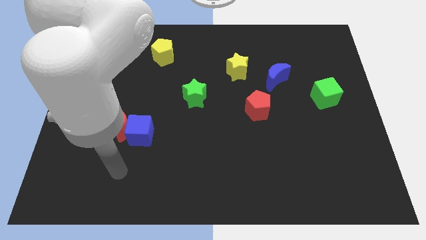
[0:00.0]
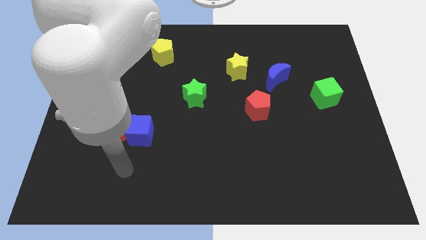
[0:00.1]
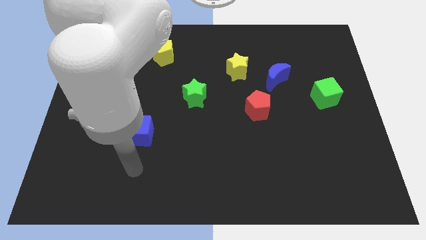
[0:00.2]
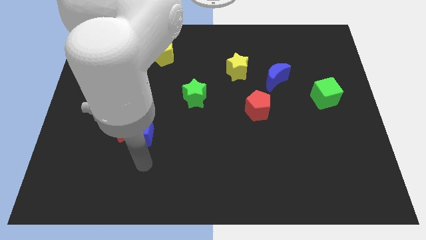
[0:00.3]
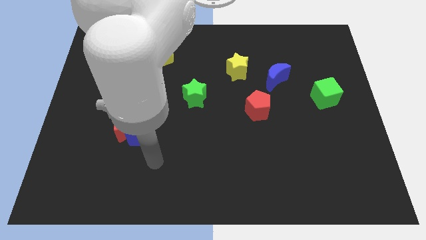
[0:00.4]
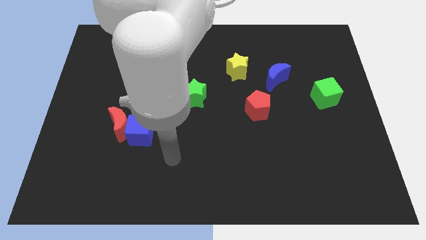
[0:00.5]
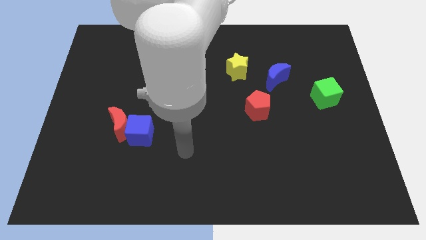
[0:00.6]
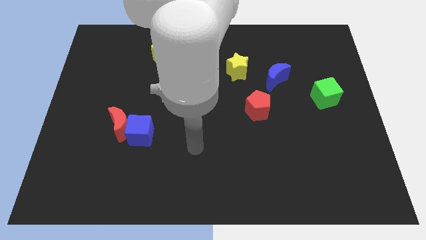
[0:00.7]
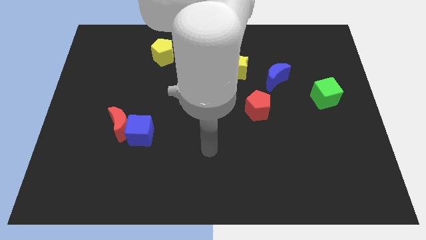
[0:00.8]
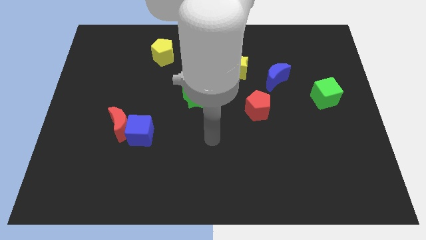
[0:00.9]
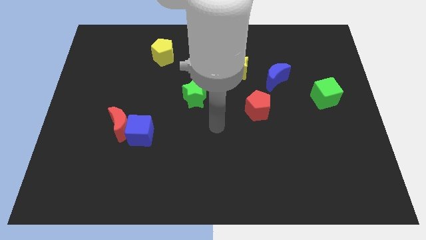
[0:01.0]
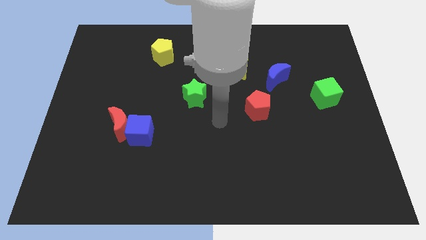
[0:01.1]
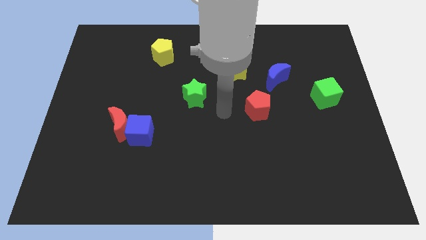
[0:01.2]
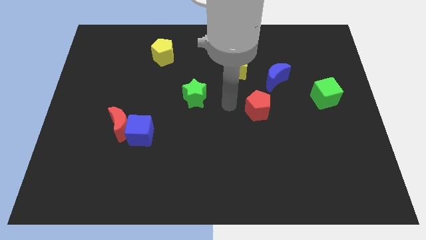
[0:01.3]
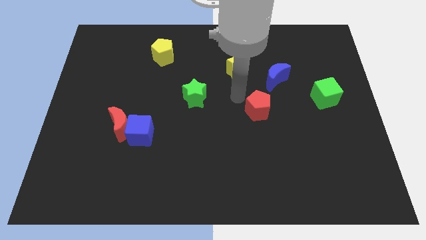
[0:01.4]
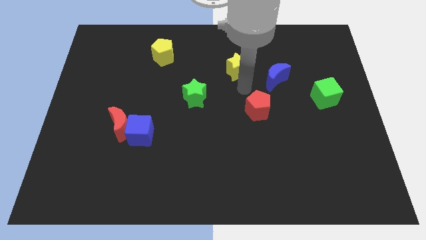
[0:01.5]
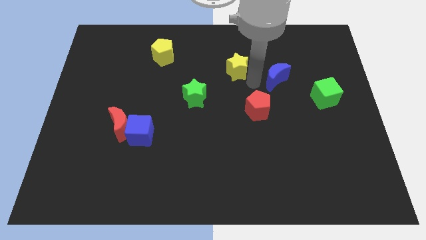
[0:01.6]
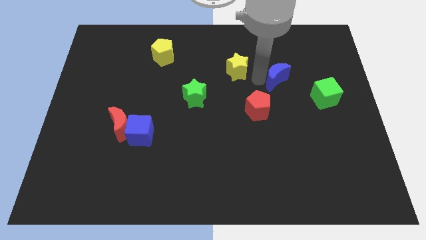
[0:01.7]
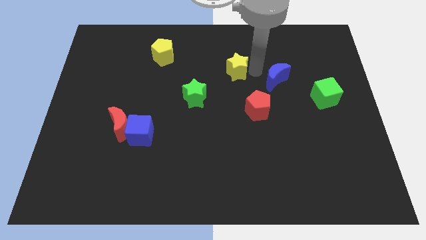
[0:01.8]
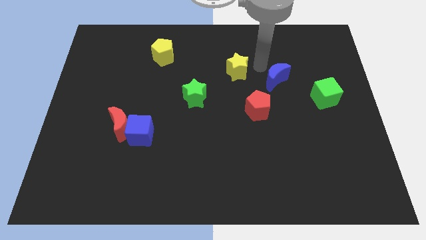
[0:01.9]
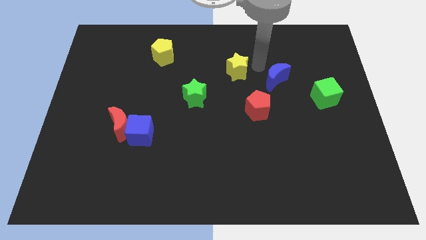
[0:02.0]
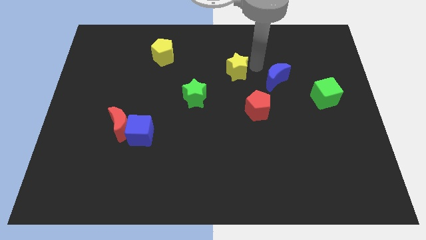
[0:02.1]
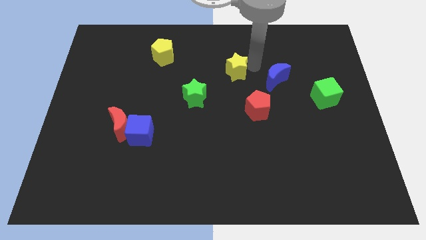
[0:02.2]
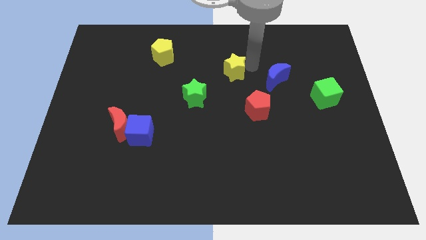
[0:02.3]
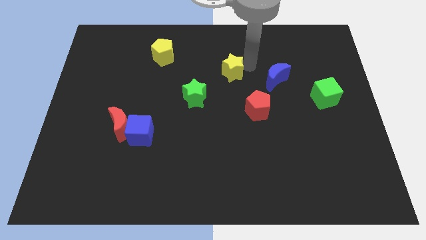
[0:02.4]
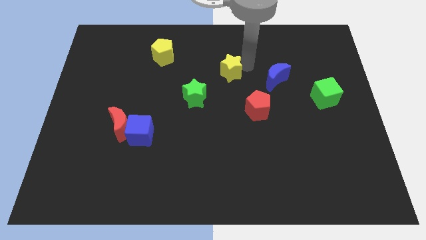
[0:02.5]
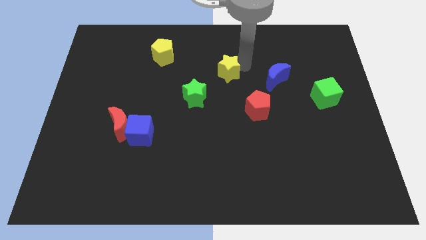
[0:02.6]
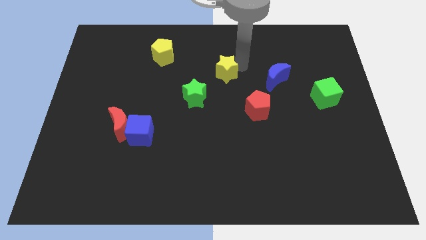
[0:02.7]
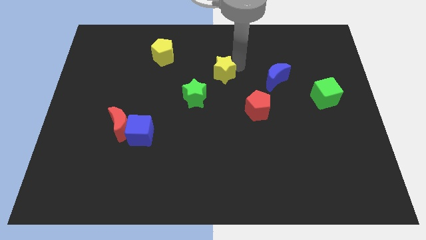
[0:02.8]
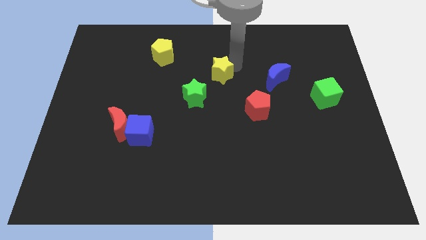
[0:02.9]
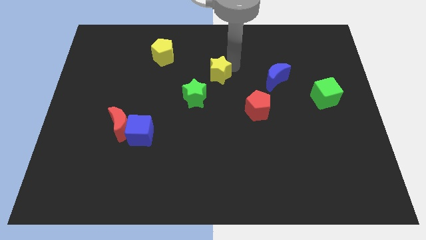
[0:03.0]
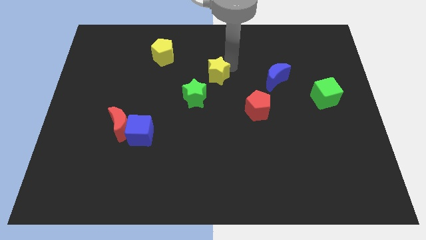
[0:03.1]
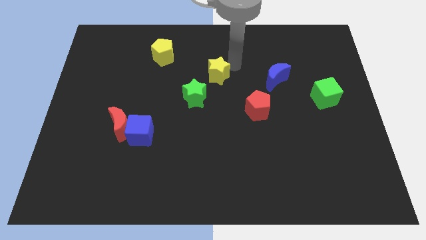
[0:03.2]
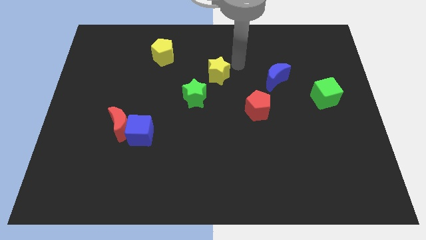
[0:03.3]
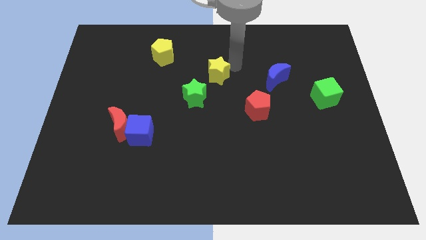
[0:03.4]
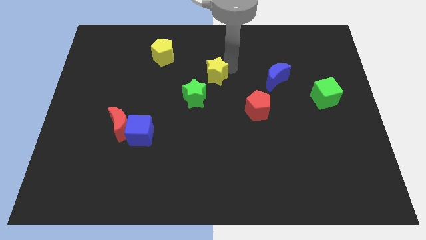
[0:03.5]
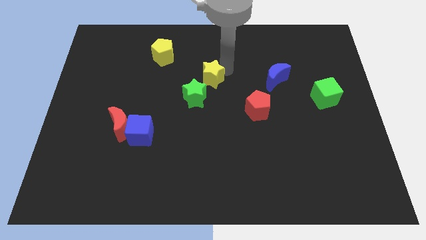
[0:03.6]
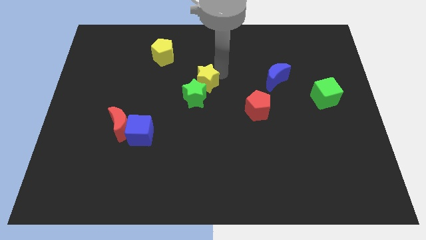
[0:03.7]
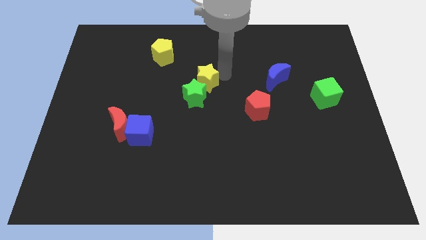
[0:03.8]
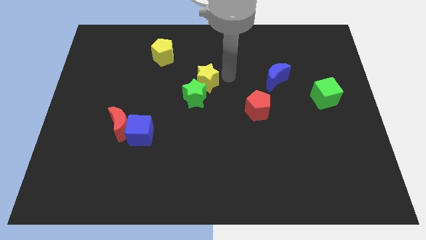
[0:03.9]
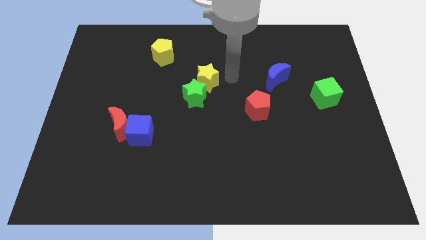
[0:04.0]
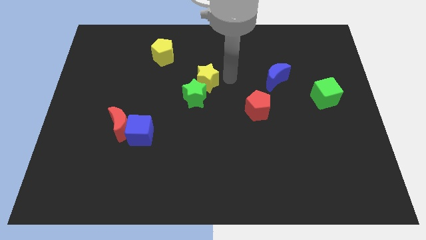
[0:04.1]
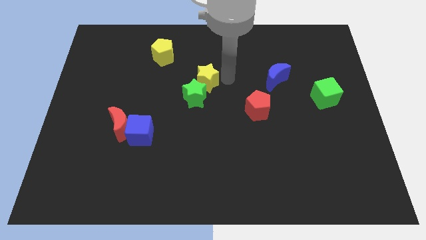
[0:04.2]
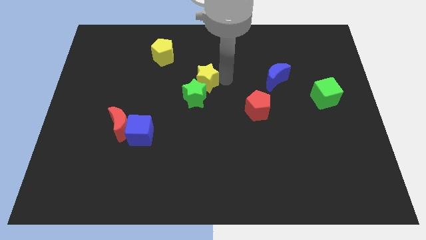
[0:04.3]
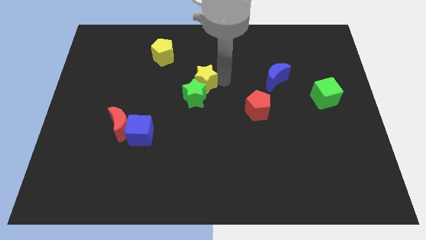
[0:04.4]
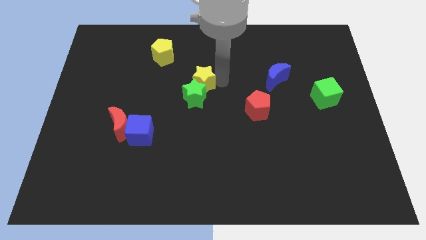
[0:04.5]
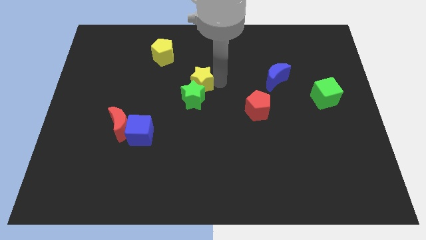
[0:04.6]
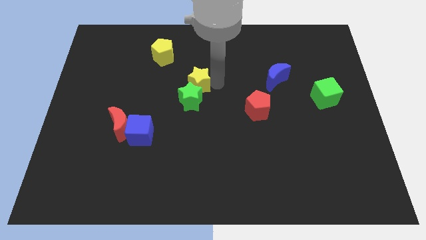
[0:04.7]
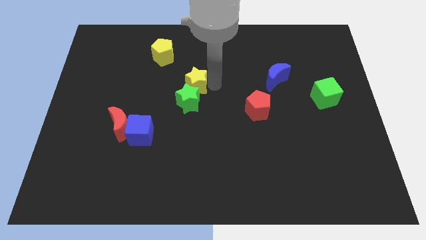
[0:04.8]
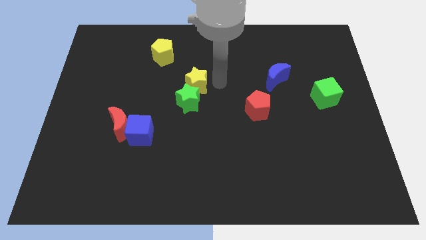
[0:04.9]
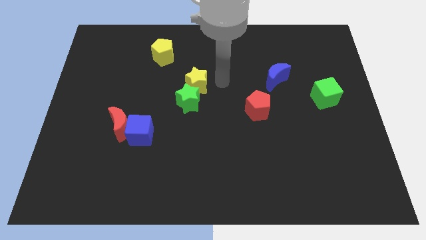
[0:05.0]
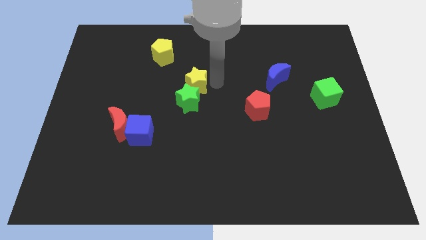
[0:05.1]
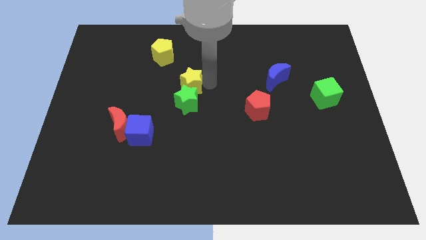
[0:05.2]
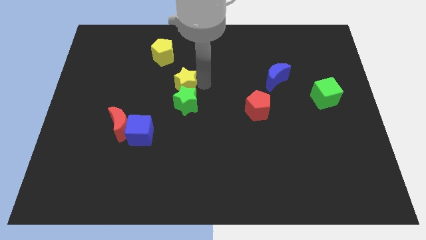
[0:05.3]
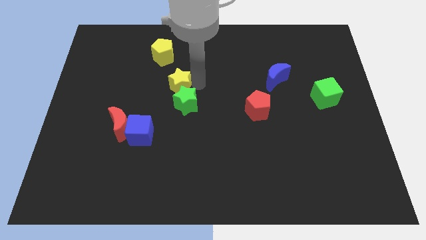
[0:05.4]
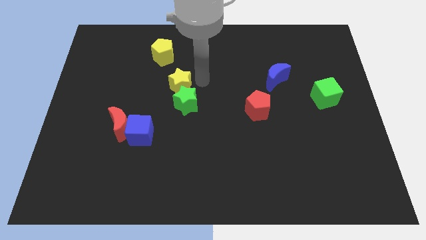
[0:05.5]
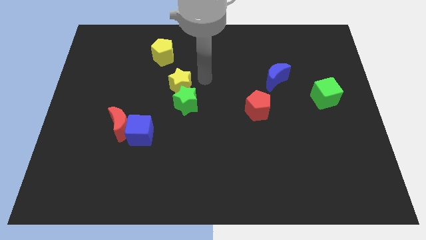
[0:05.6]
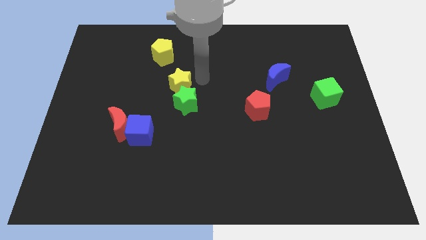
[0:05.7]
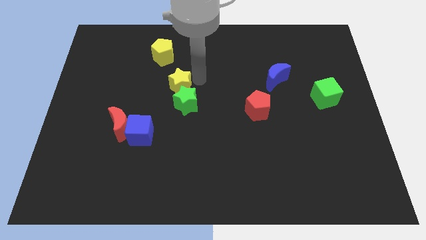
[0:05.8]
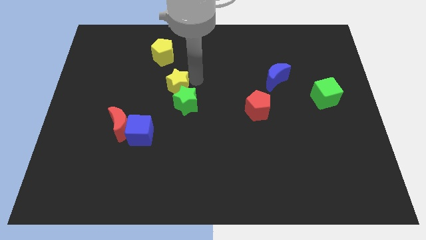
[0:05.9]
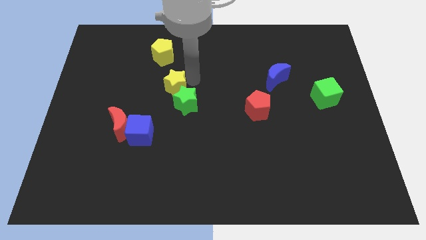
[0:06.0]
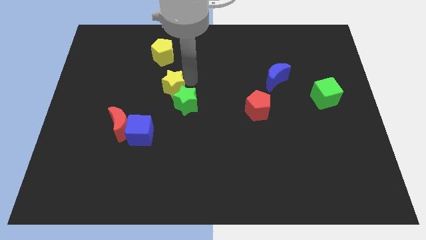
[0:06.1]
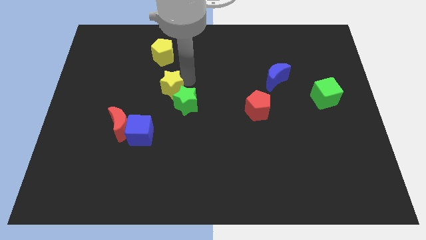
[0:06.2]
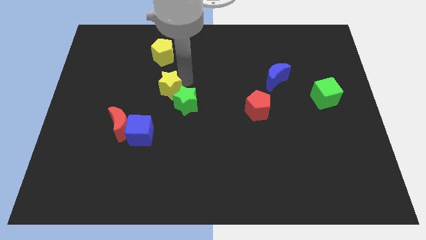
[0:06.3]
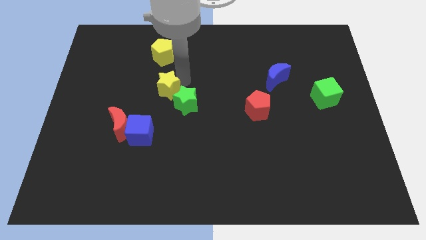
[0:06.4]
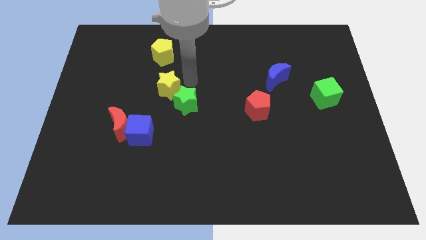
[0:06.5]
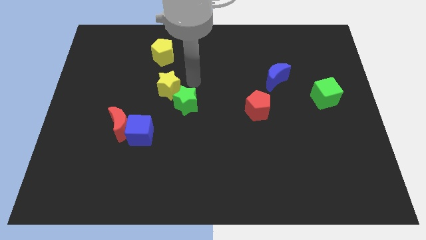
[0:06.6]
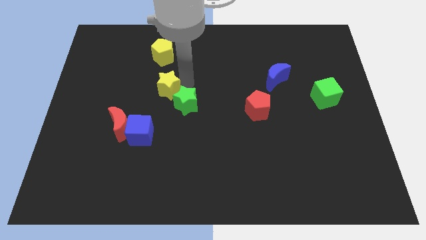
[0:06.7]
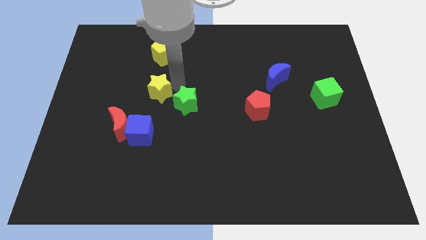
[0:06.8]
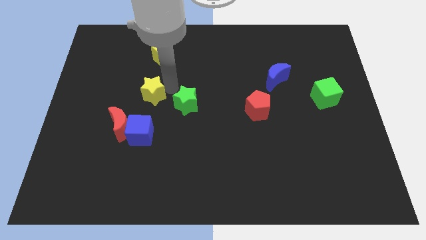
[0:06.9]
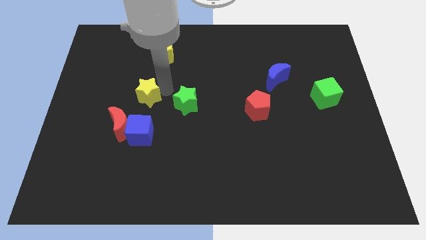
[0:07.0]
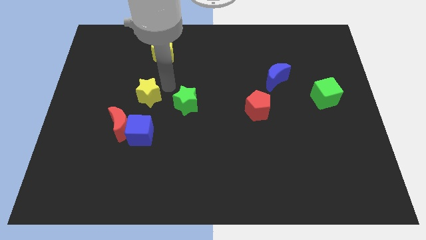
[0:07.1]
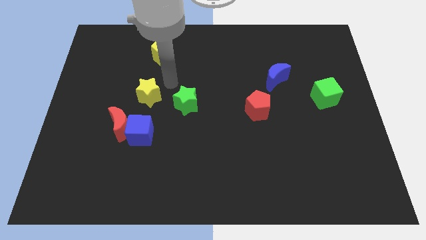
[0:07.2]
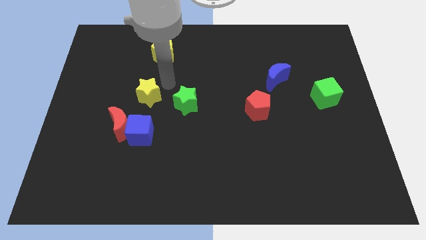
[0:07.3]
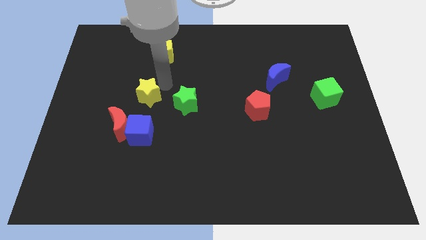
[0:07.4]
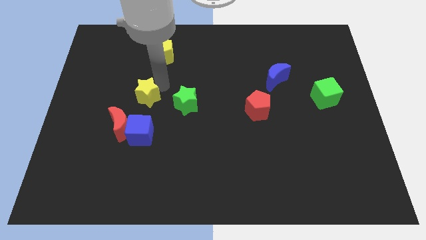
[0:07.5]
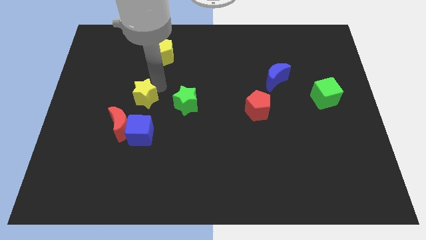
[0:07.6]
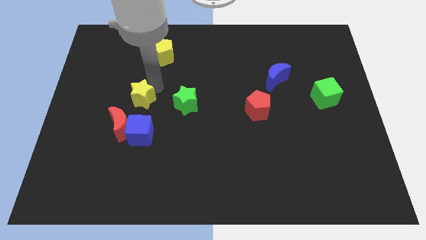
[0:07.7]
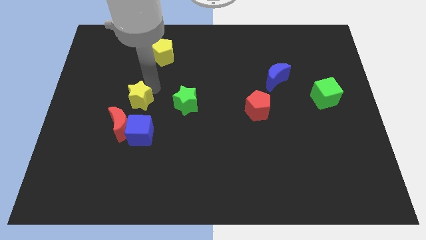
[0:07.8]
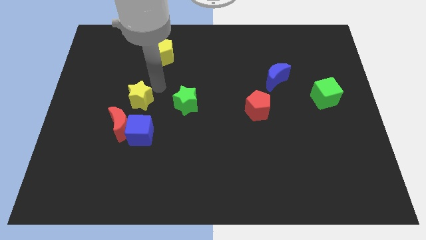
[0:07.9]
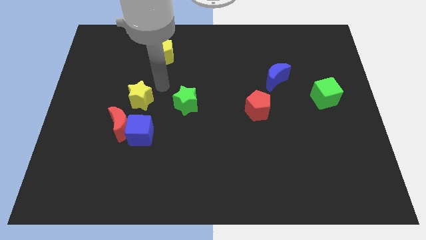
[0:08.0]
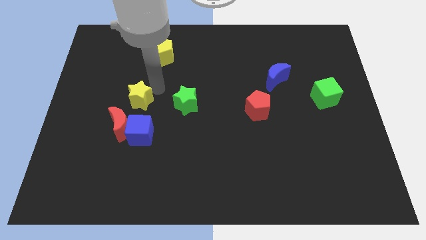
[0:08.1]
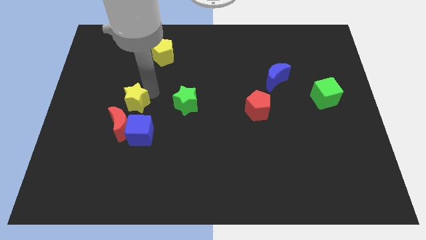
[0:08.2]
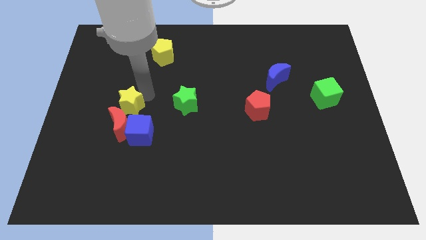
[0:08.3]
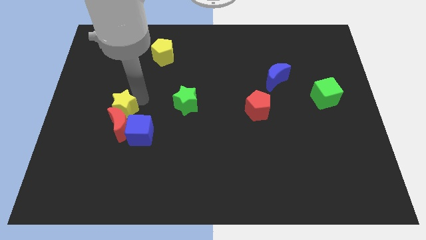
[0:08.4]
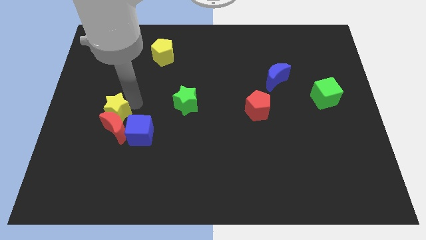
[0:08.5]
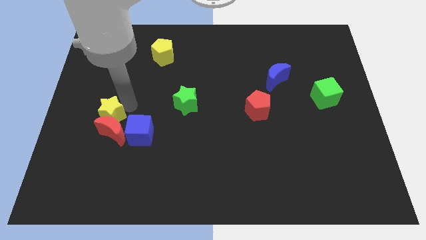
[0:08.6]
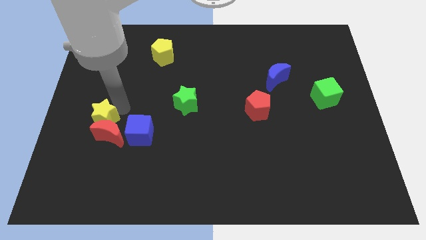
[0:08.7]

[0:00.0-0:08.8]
push the yellow star just left of the blue cube
